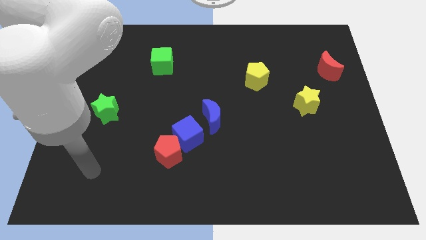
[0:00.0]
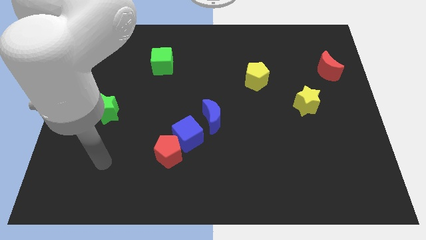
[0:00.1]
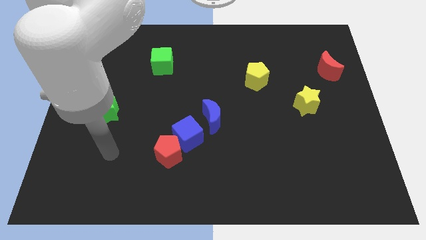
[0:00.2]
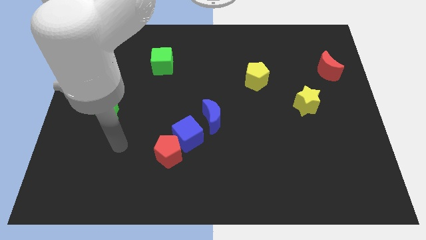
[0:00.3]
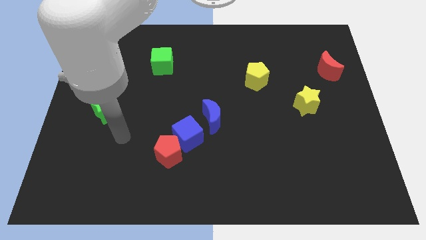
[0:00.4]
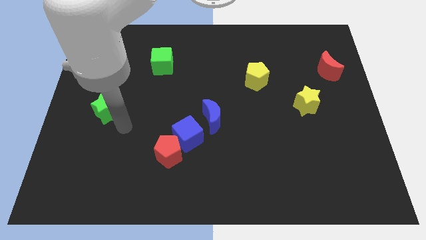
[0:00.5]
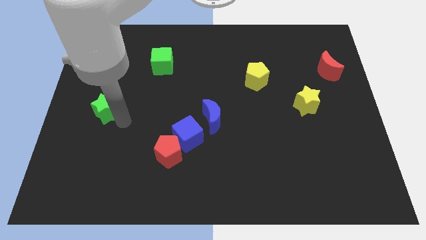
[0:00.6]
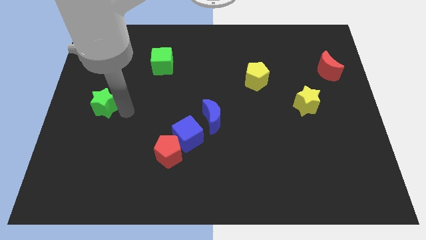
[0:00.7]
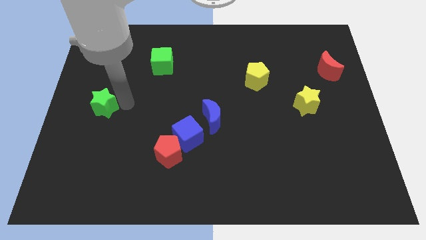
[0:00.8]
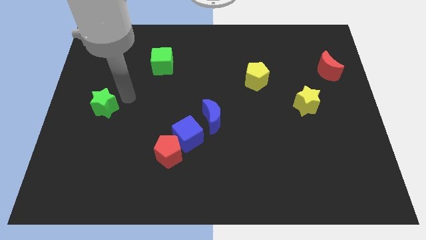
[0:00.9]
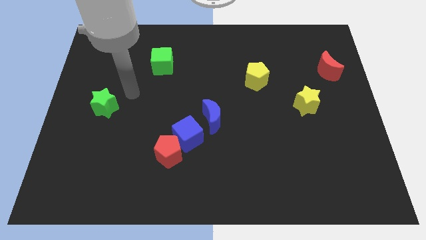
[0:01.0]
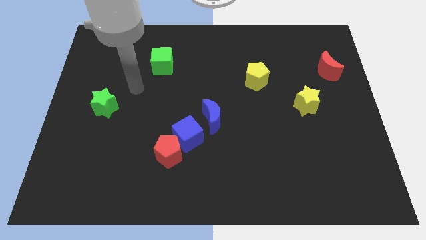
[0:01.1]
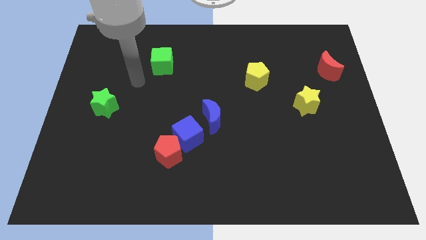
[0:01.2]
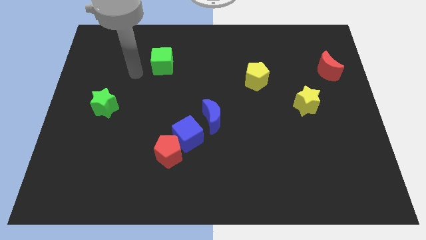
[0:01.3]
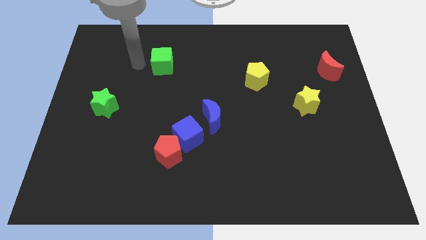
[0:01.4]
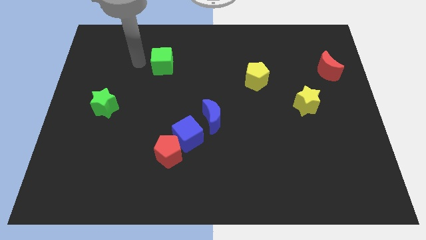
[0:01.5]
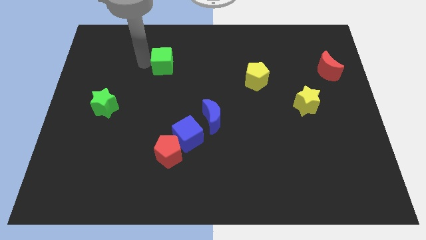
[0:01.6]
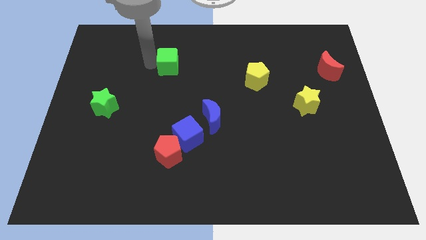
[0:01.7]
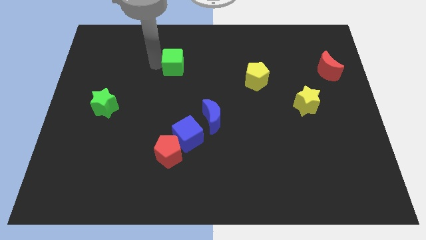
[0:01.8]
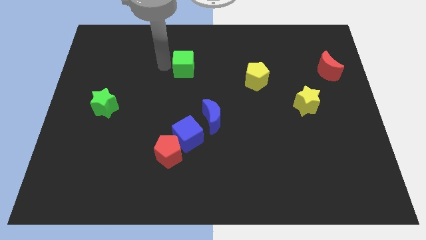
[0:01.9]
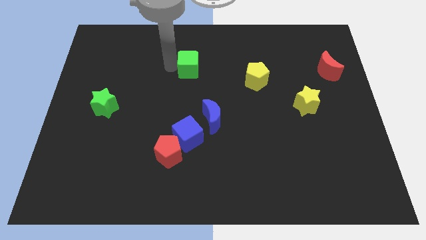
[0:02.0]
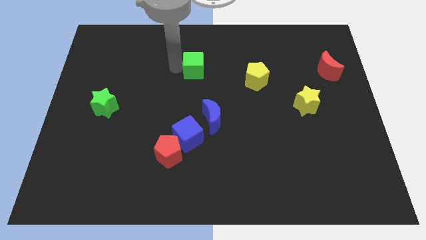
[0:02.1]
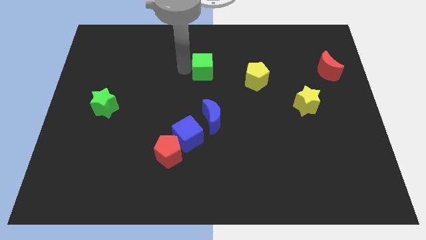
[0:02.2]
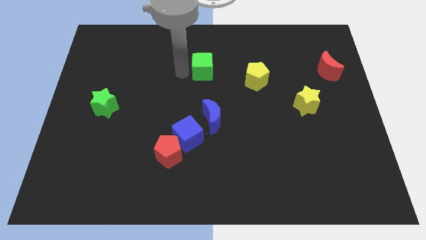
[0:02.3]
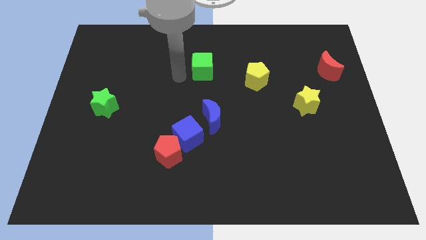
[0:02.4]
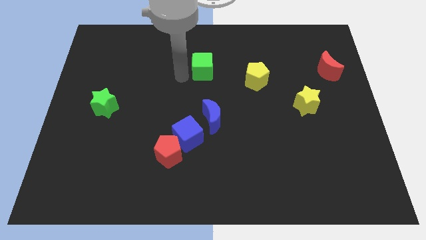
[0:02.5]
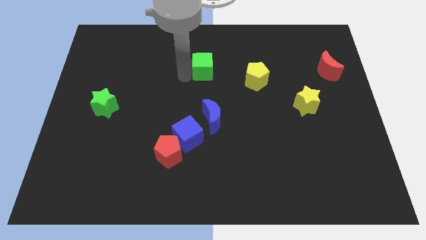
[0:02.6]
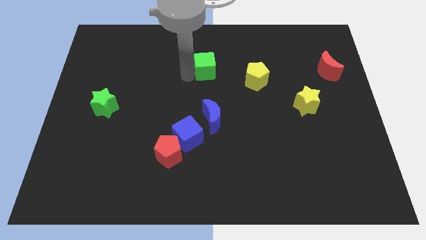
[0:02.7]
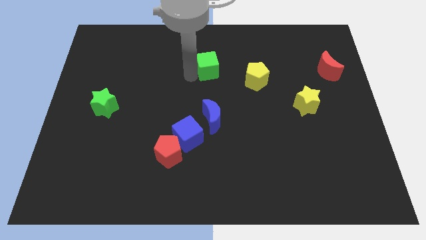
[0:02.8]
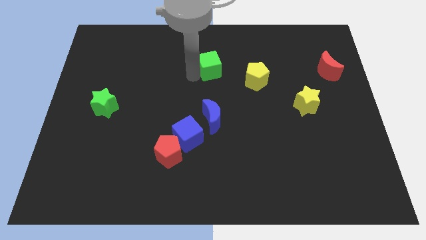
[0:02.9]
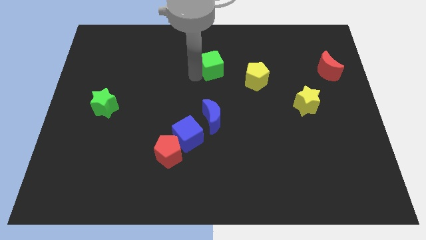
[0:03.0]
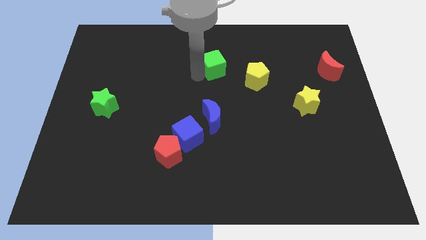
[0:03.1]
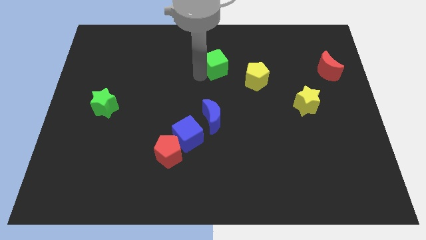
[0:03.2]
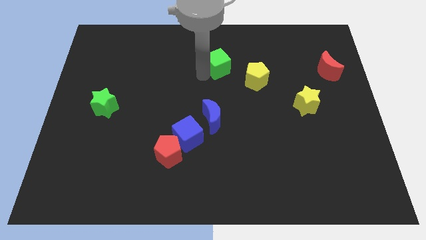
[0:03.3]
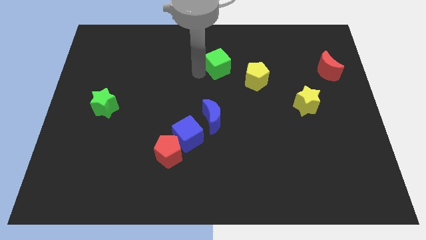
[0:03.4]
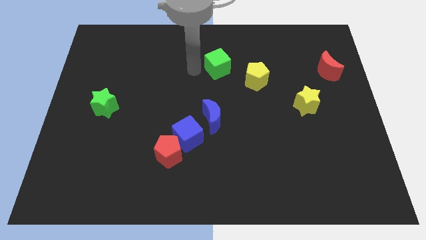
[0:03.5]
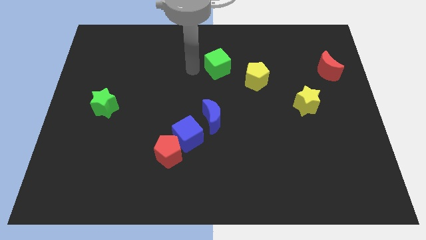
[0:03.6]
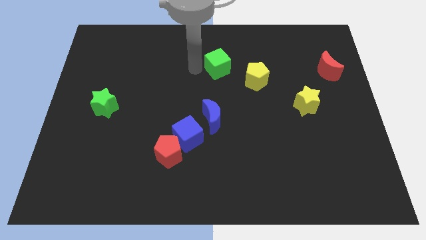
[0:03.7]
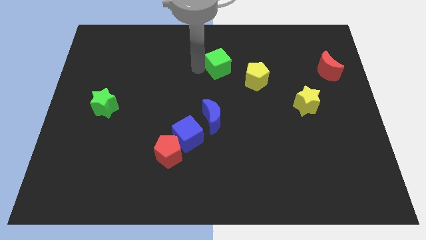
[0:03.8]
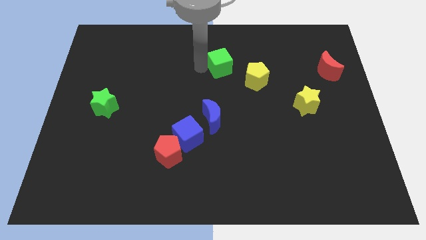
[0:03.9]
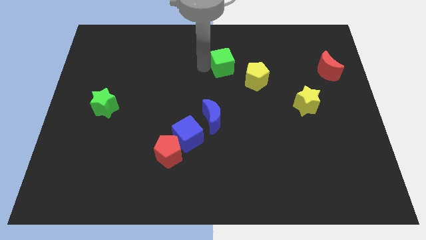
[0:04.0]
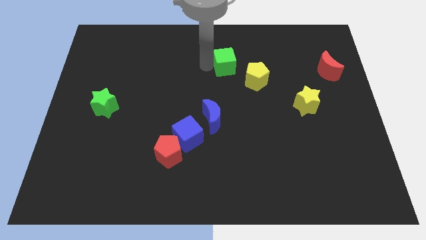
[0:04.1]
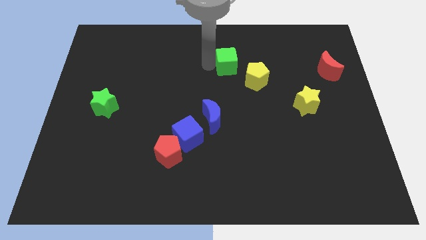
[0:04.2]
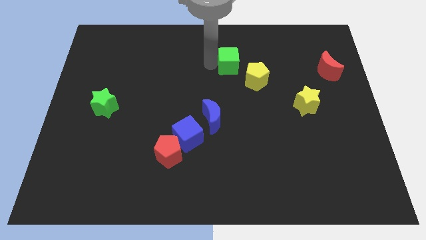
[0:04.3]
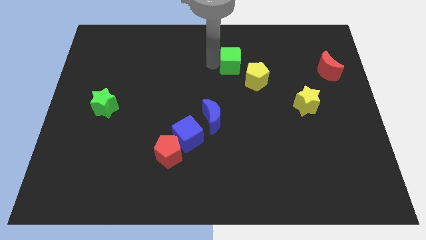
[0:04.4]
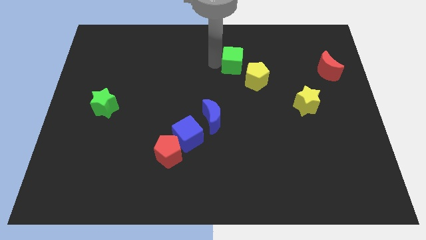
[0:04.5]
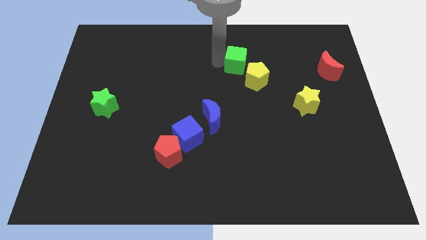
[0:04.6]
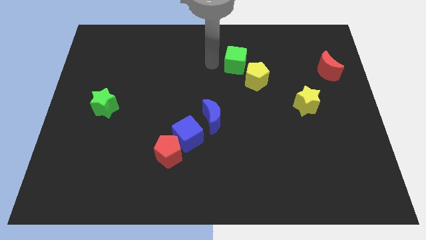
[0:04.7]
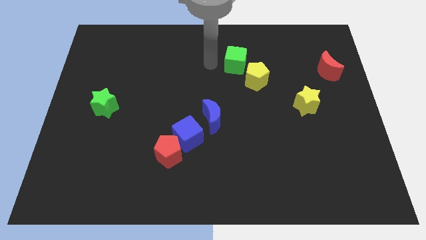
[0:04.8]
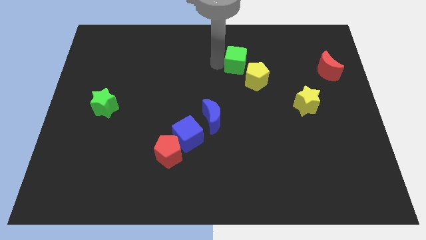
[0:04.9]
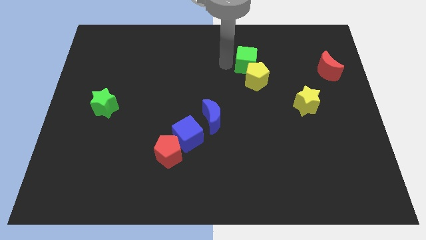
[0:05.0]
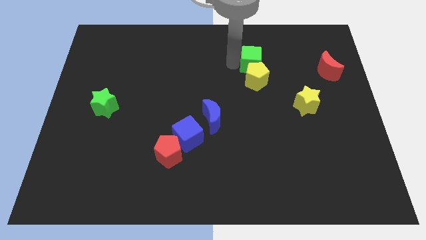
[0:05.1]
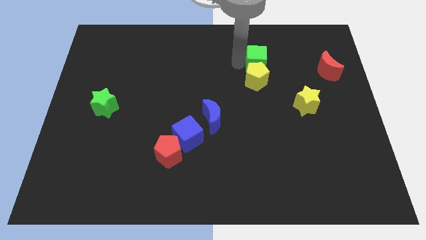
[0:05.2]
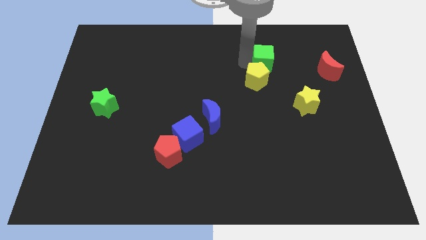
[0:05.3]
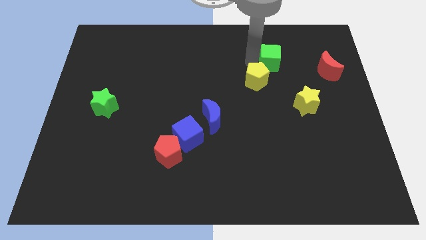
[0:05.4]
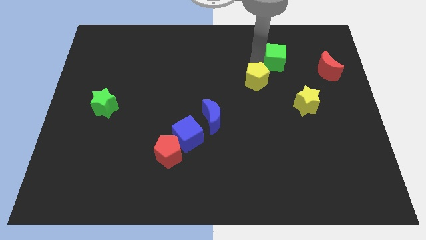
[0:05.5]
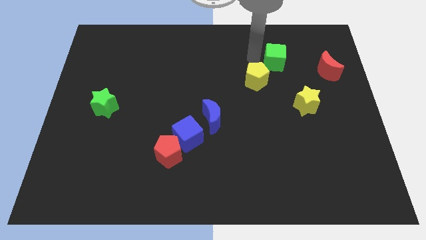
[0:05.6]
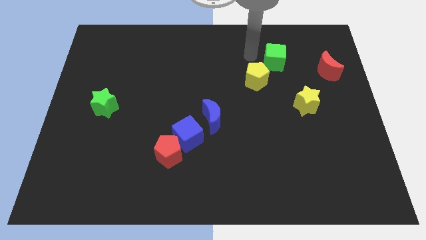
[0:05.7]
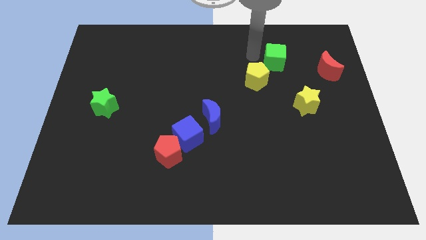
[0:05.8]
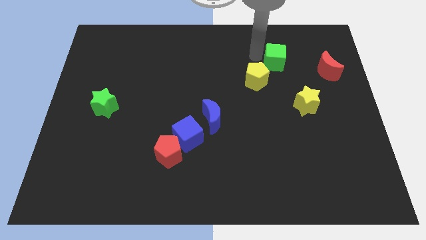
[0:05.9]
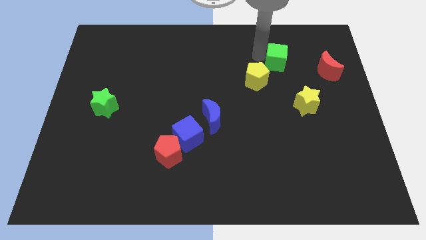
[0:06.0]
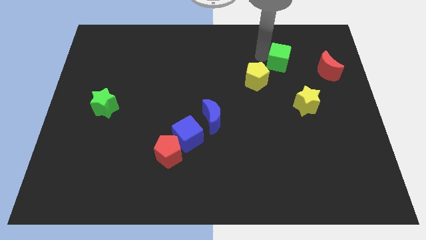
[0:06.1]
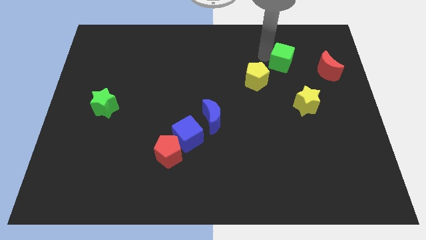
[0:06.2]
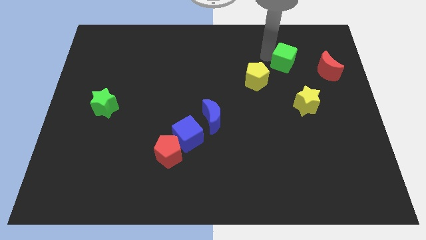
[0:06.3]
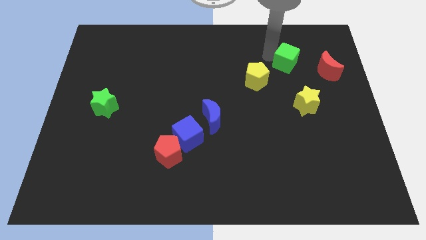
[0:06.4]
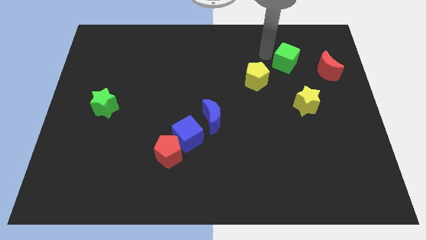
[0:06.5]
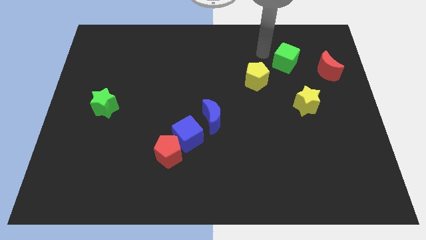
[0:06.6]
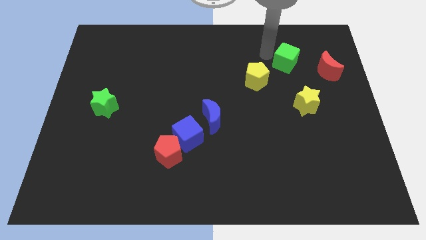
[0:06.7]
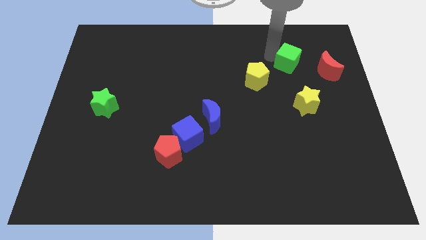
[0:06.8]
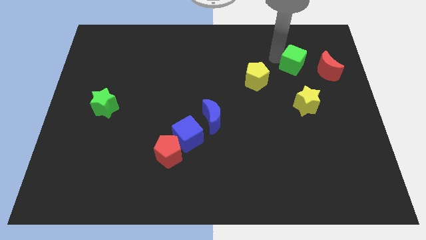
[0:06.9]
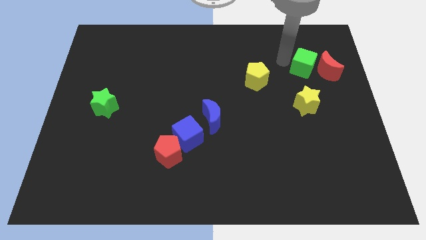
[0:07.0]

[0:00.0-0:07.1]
slide the green cube close to the red moon
